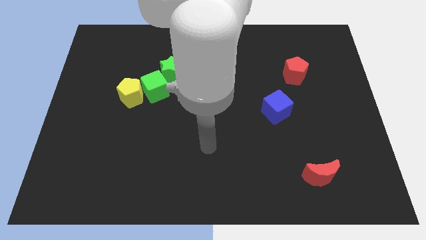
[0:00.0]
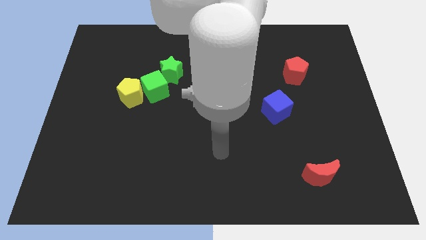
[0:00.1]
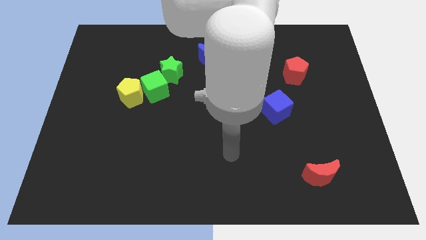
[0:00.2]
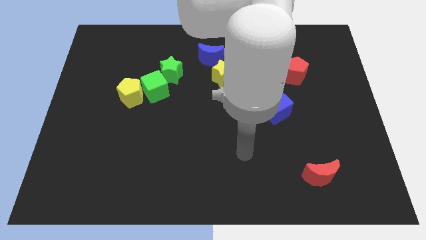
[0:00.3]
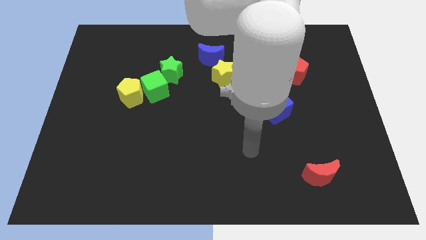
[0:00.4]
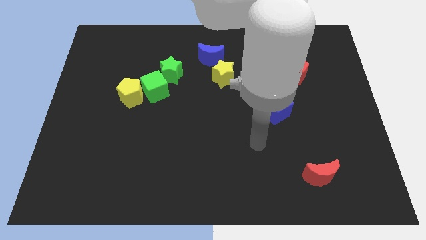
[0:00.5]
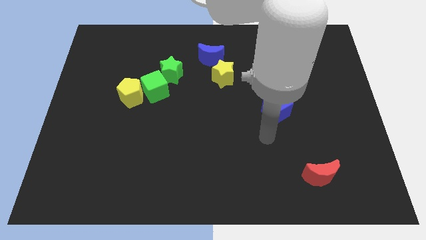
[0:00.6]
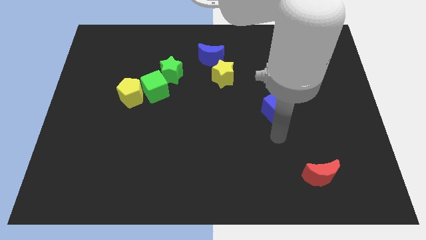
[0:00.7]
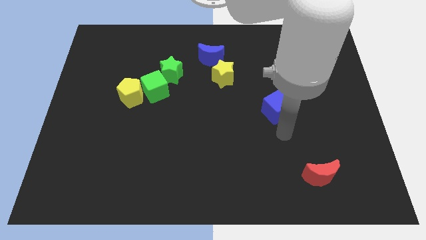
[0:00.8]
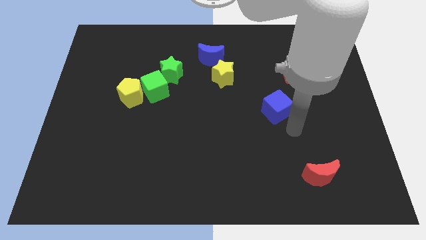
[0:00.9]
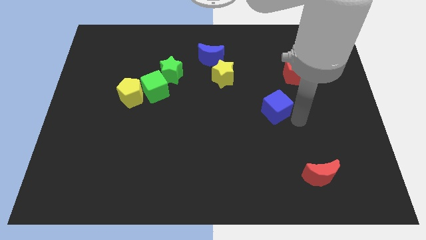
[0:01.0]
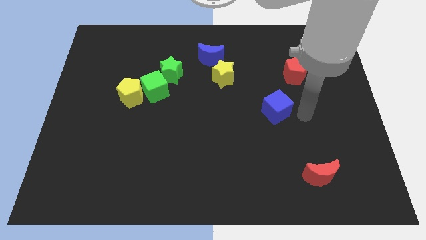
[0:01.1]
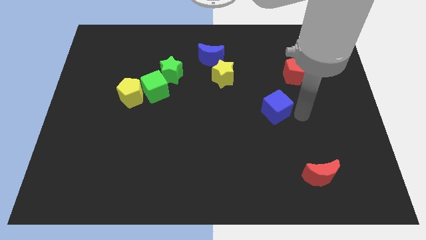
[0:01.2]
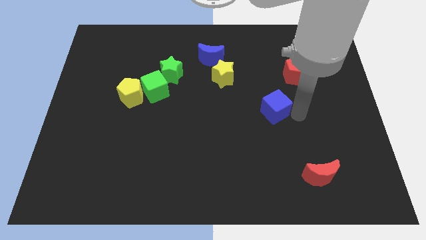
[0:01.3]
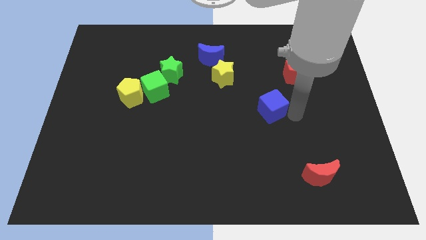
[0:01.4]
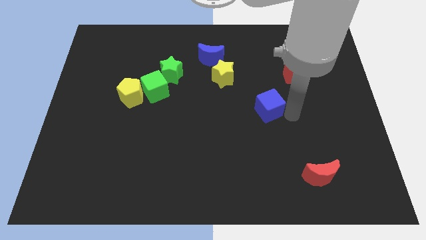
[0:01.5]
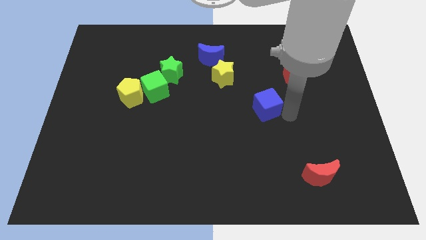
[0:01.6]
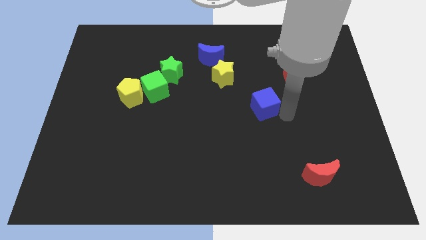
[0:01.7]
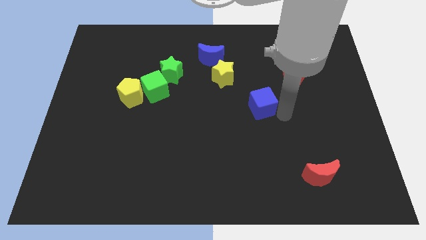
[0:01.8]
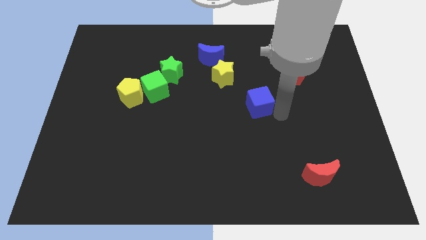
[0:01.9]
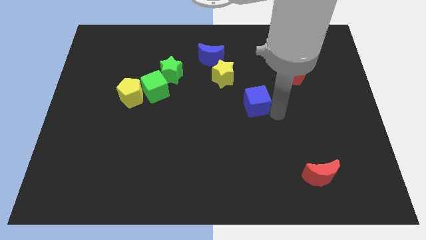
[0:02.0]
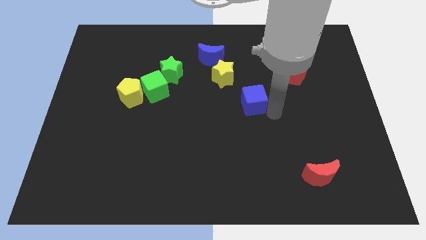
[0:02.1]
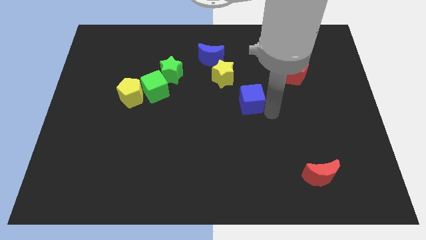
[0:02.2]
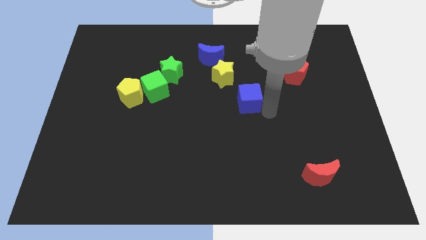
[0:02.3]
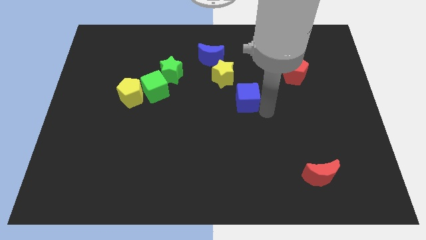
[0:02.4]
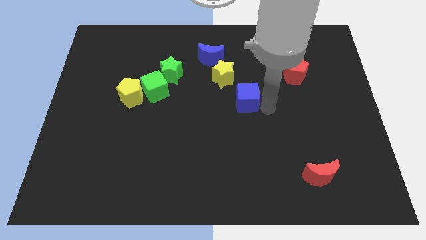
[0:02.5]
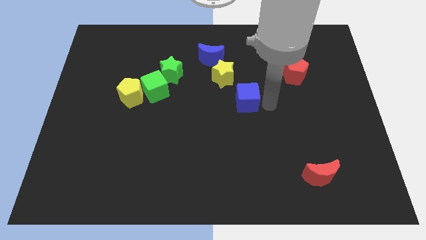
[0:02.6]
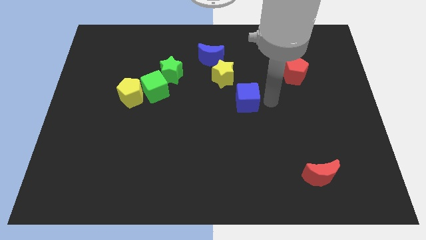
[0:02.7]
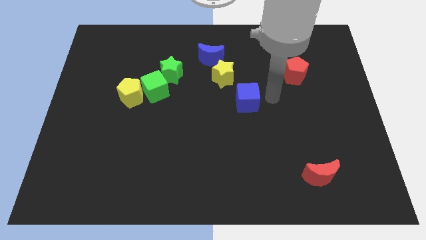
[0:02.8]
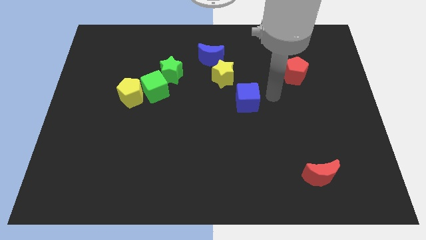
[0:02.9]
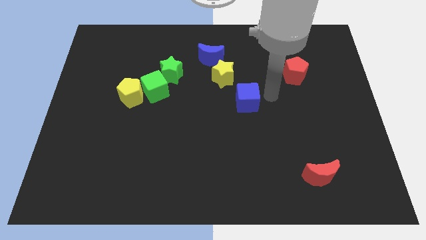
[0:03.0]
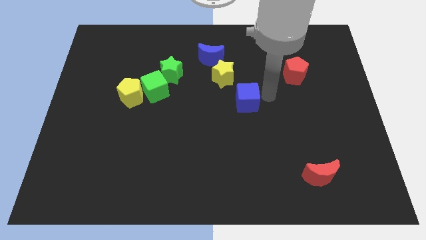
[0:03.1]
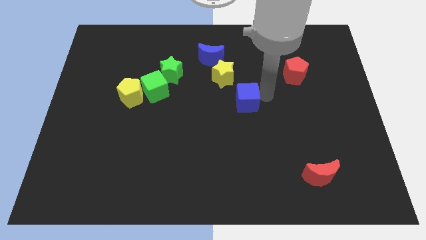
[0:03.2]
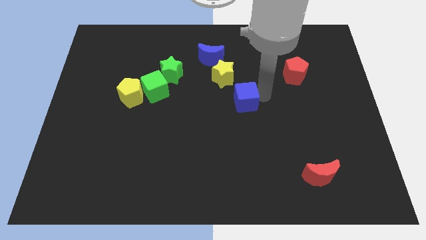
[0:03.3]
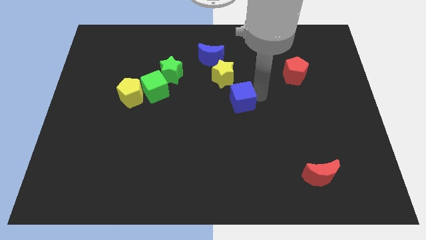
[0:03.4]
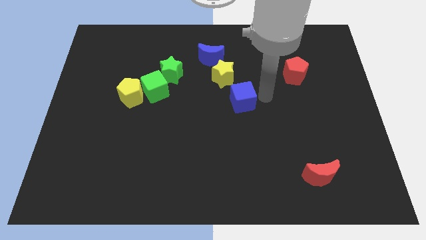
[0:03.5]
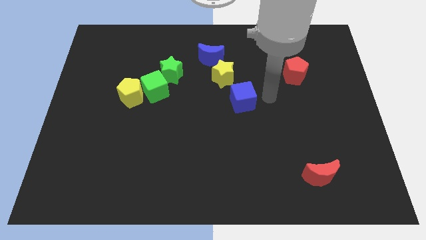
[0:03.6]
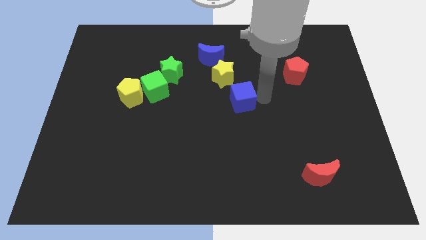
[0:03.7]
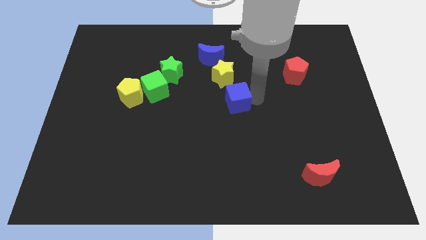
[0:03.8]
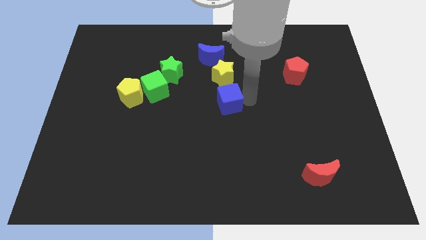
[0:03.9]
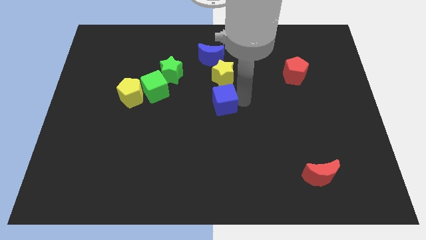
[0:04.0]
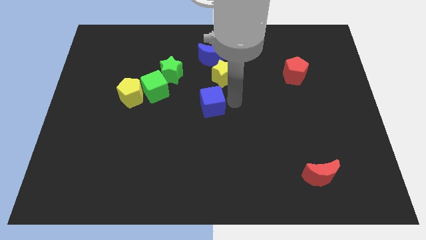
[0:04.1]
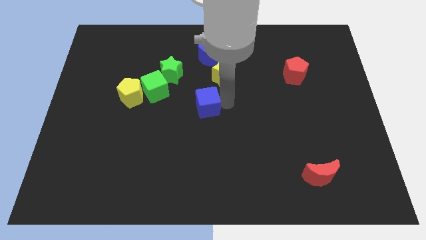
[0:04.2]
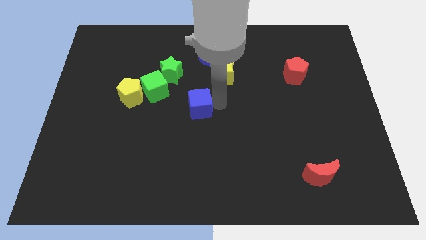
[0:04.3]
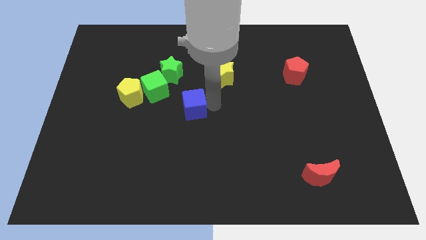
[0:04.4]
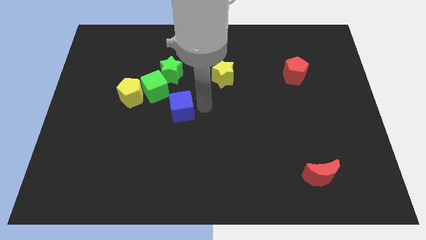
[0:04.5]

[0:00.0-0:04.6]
push the blue cube left

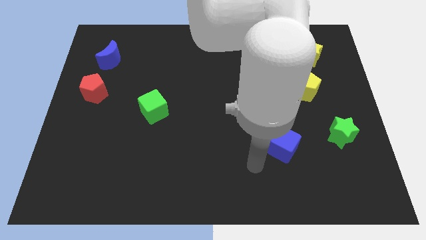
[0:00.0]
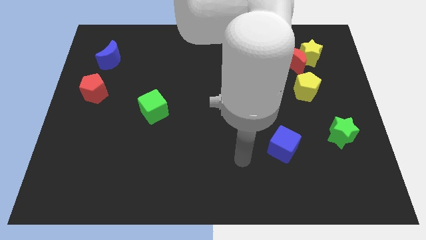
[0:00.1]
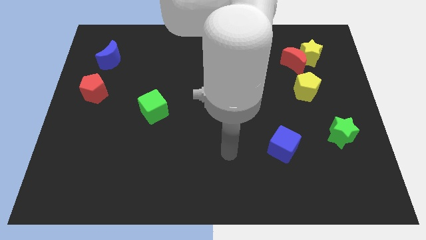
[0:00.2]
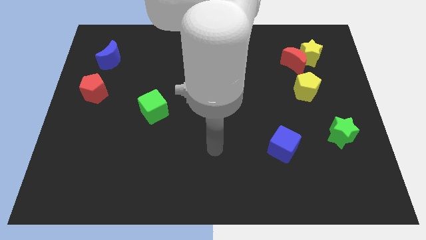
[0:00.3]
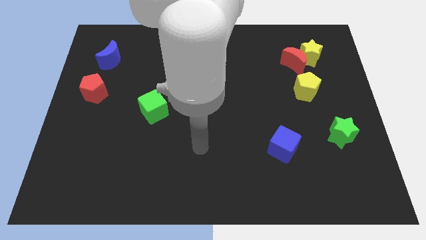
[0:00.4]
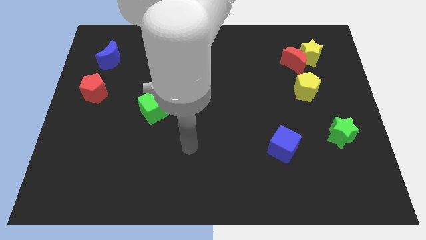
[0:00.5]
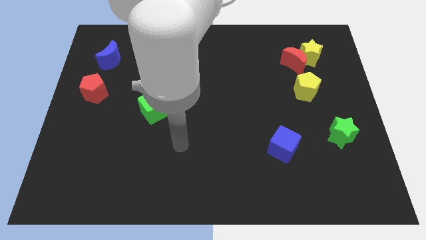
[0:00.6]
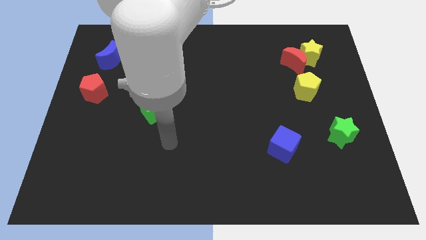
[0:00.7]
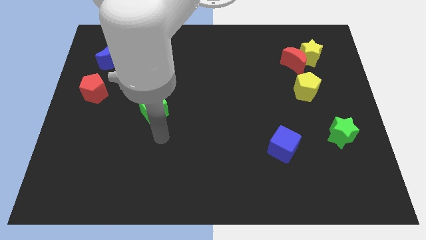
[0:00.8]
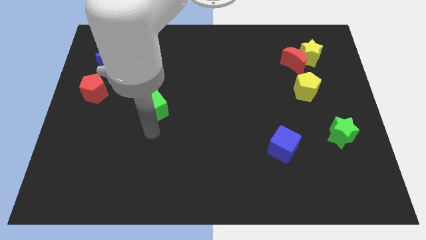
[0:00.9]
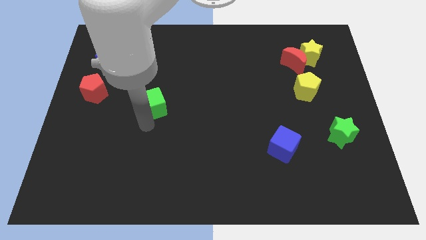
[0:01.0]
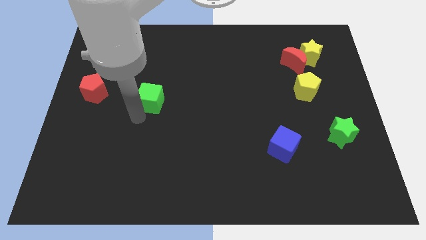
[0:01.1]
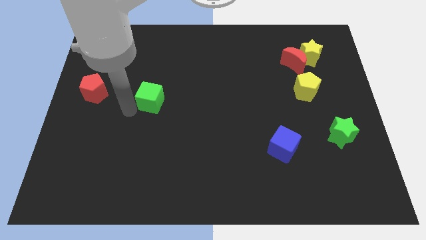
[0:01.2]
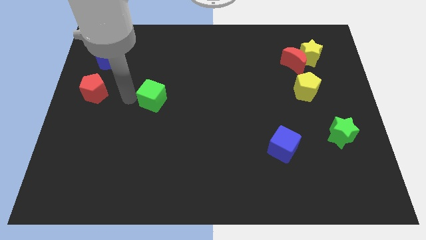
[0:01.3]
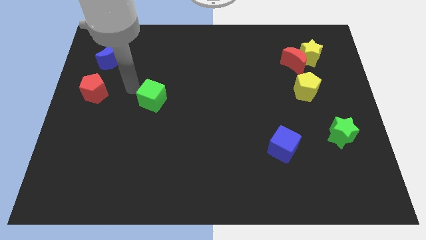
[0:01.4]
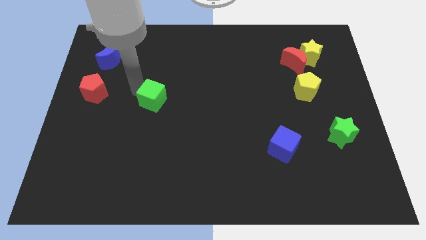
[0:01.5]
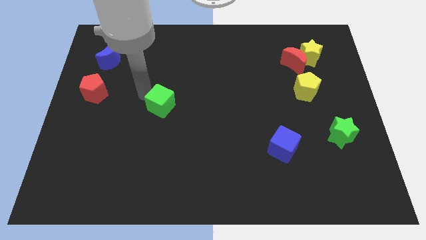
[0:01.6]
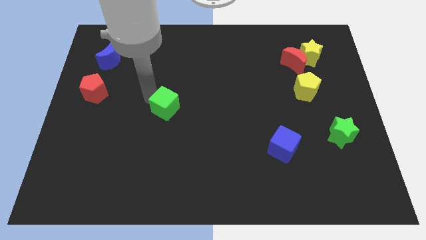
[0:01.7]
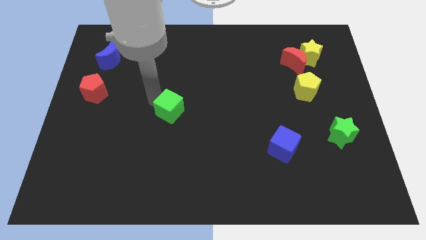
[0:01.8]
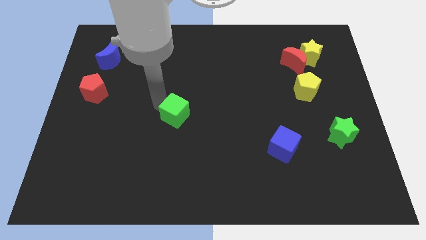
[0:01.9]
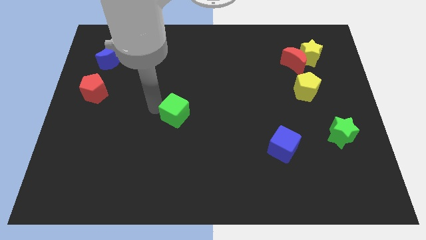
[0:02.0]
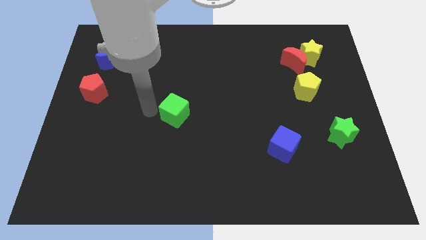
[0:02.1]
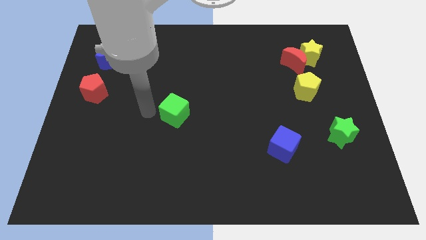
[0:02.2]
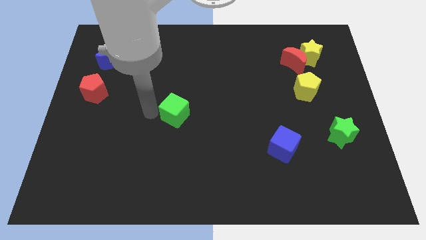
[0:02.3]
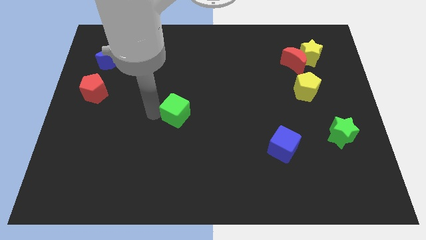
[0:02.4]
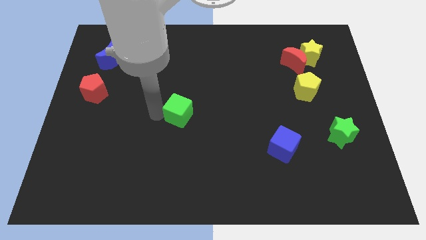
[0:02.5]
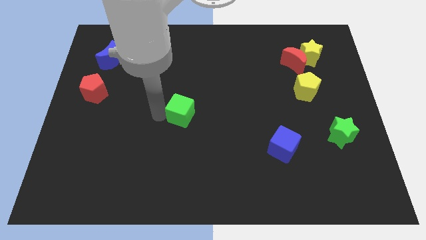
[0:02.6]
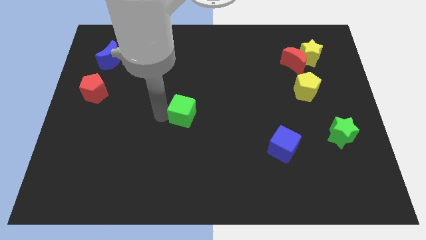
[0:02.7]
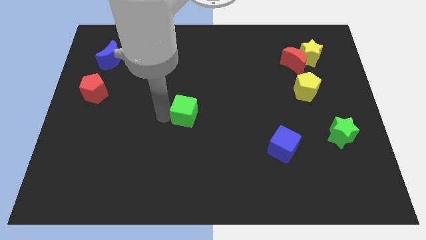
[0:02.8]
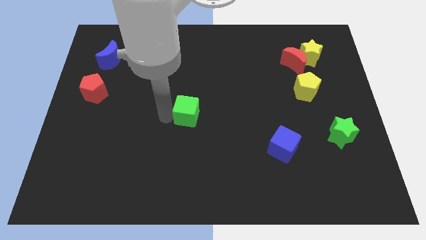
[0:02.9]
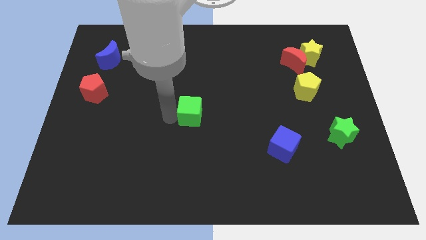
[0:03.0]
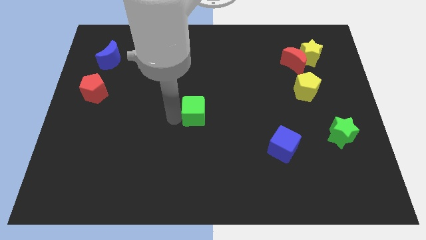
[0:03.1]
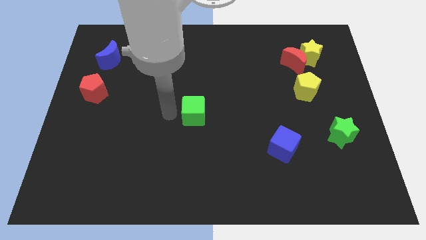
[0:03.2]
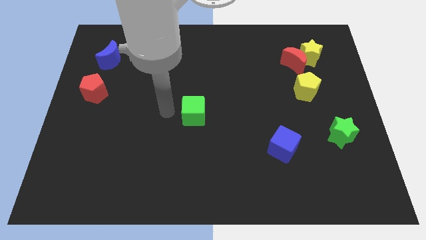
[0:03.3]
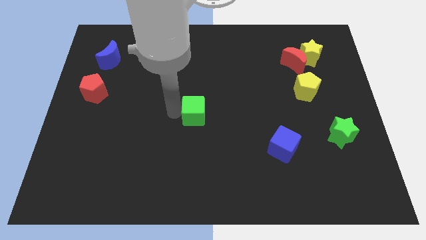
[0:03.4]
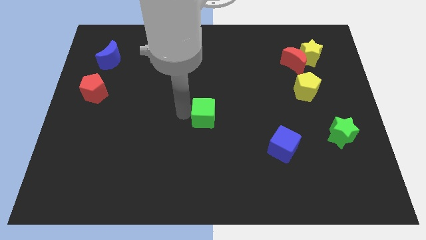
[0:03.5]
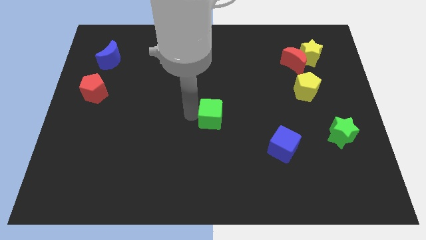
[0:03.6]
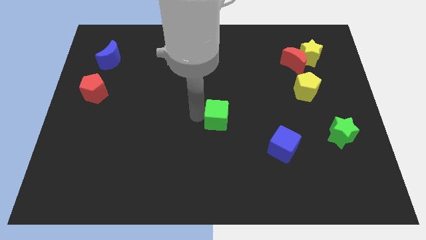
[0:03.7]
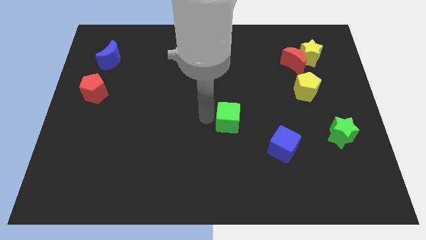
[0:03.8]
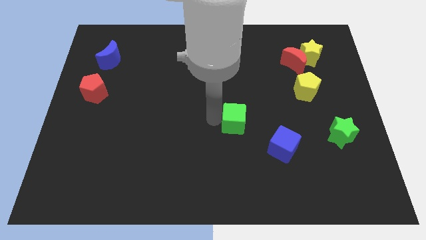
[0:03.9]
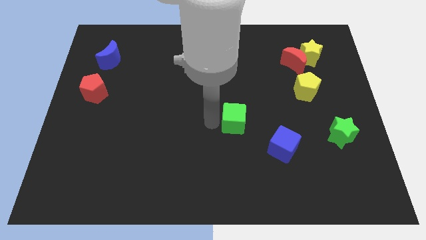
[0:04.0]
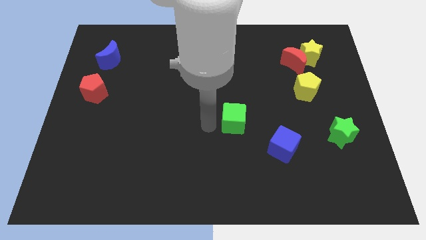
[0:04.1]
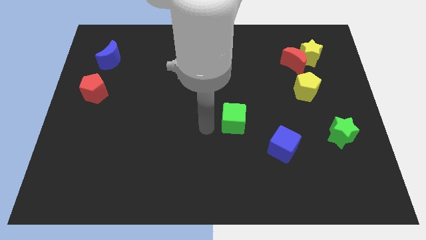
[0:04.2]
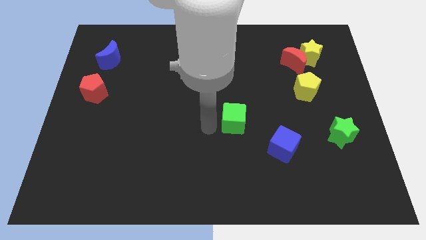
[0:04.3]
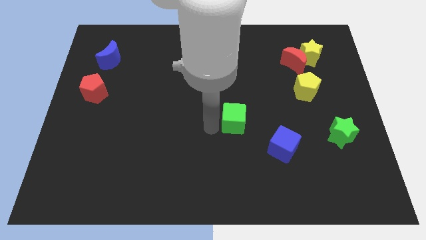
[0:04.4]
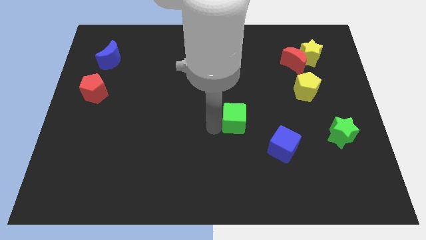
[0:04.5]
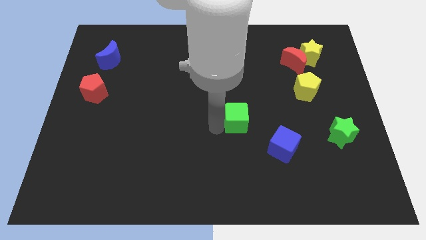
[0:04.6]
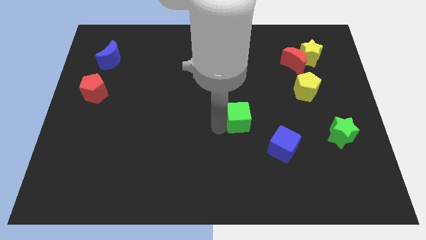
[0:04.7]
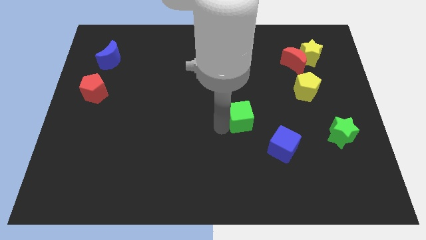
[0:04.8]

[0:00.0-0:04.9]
slide the green cube to the right
